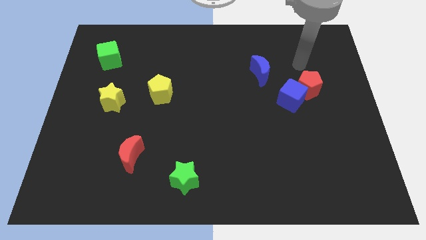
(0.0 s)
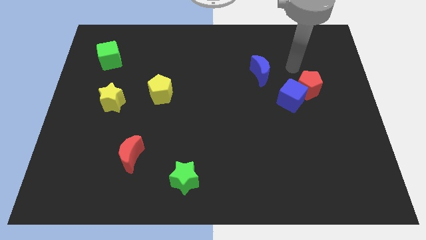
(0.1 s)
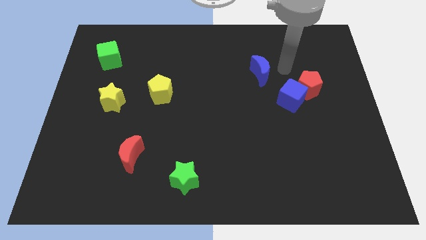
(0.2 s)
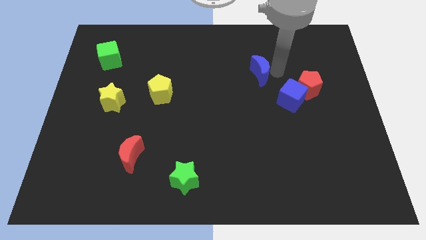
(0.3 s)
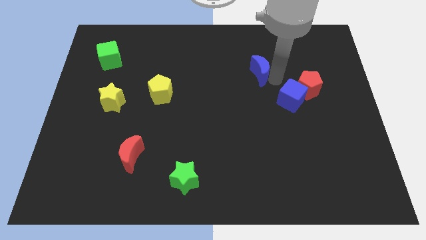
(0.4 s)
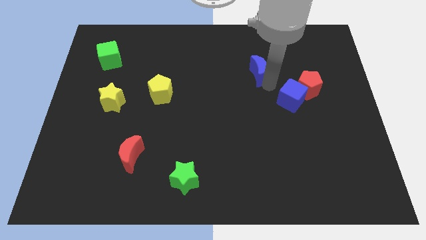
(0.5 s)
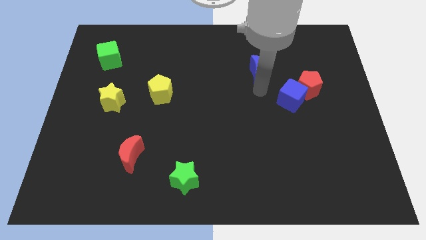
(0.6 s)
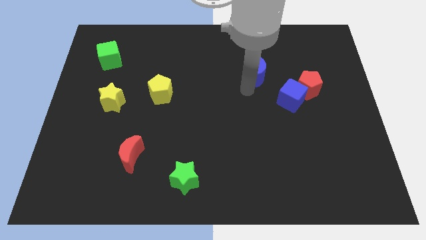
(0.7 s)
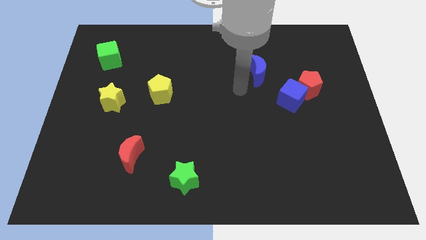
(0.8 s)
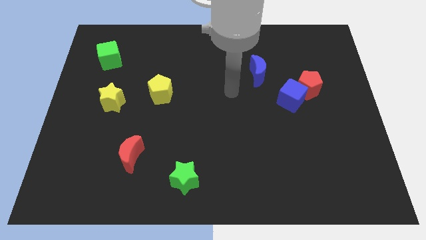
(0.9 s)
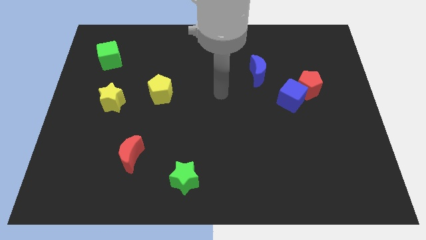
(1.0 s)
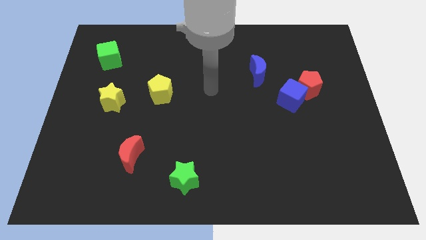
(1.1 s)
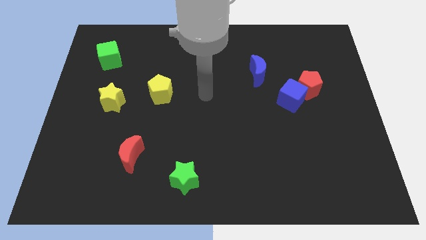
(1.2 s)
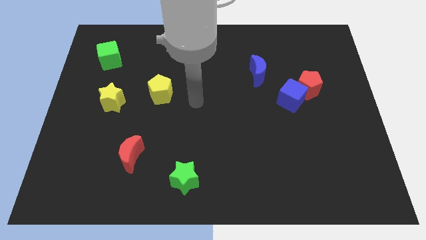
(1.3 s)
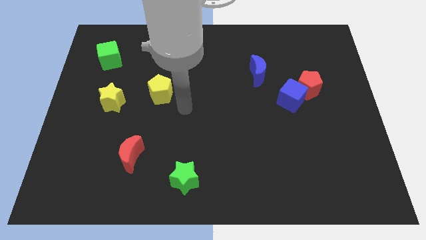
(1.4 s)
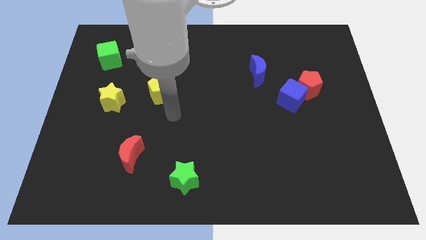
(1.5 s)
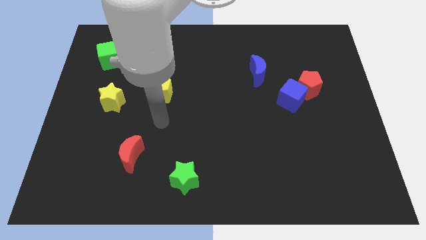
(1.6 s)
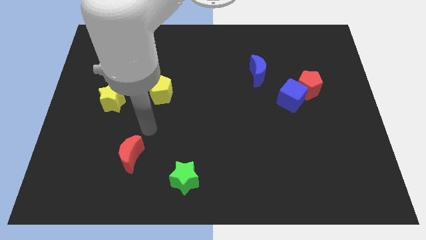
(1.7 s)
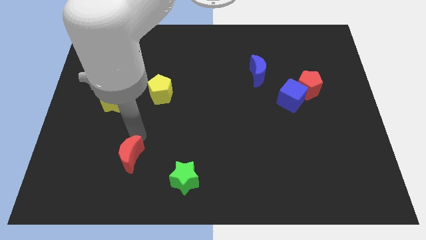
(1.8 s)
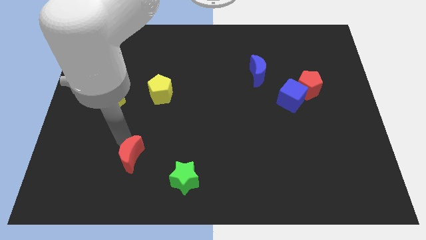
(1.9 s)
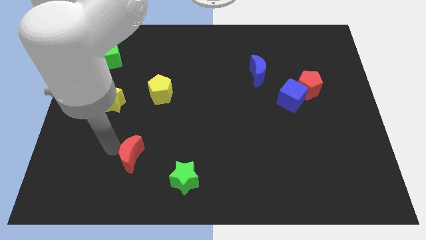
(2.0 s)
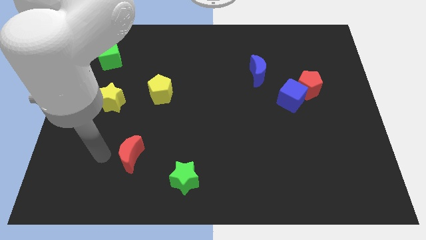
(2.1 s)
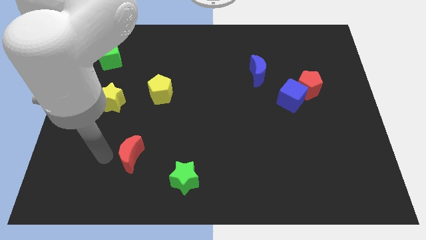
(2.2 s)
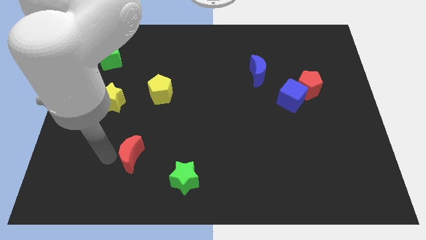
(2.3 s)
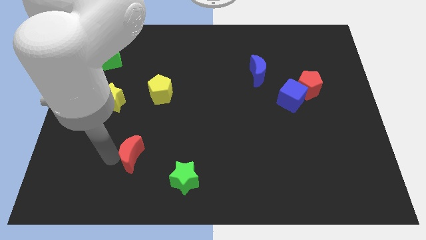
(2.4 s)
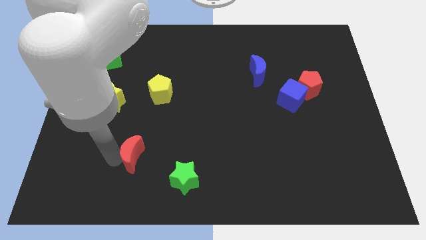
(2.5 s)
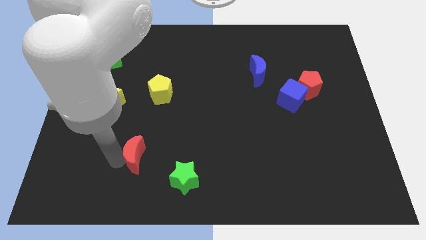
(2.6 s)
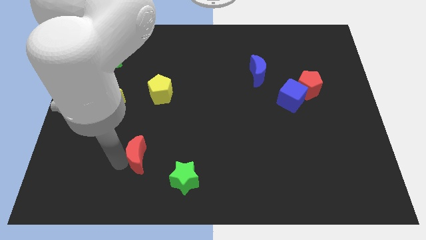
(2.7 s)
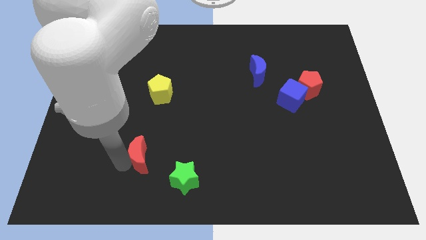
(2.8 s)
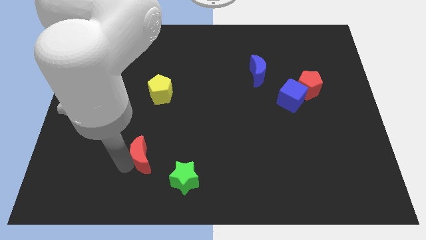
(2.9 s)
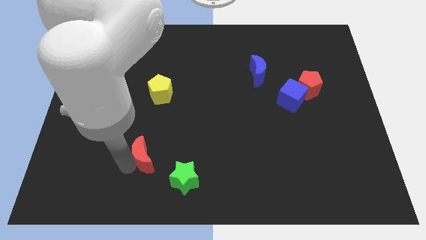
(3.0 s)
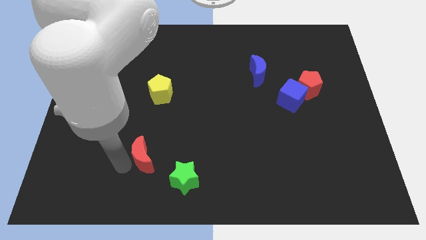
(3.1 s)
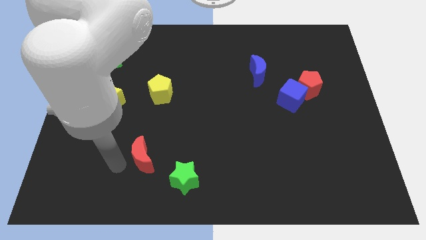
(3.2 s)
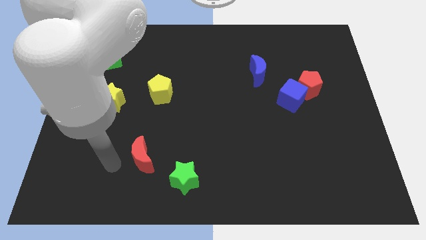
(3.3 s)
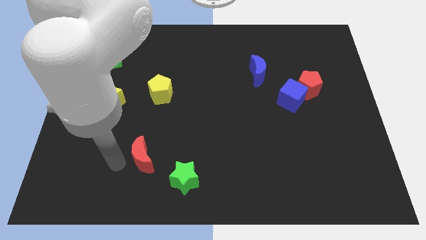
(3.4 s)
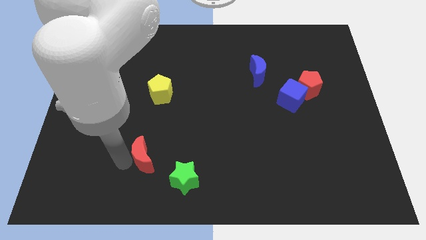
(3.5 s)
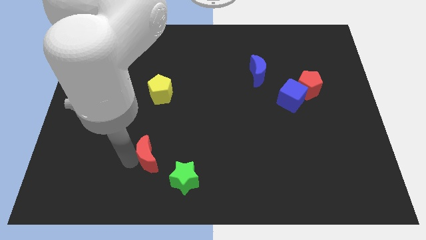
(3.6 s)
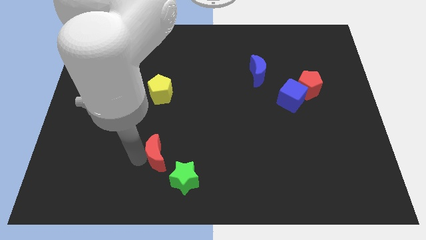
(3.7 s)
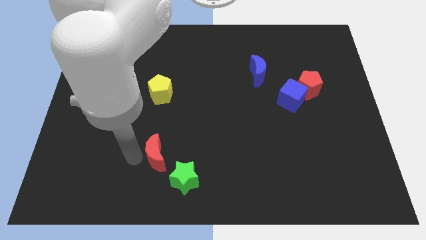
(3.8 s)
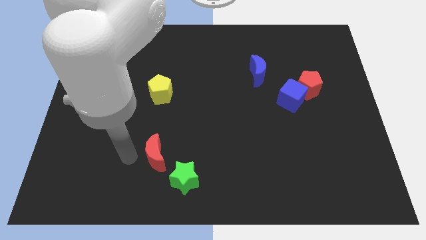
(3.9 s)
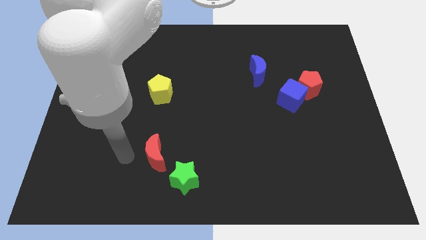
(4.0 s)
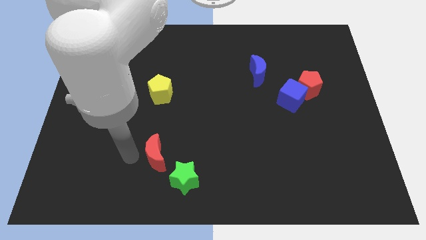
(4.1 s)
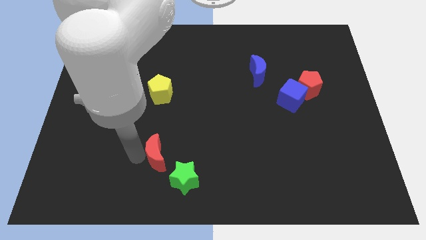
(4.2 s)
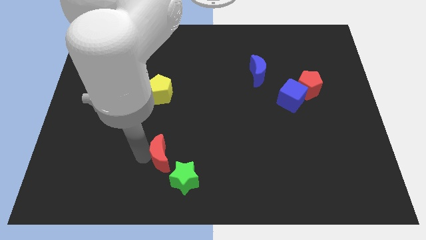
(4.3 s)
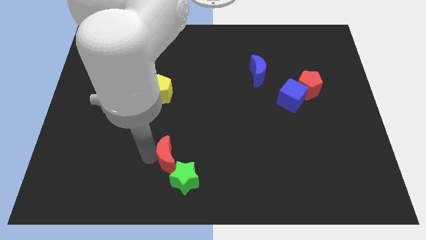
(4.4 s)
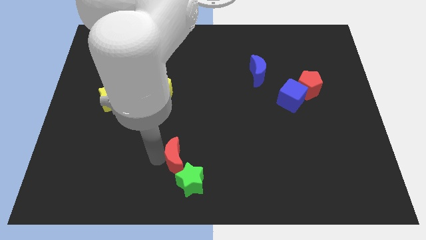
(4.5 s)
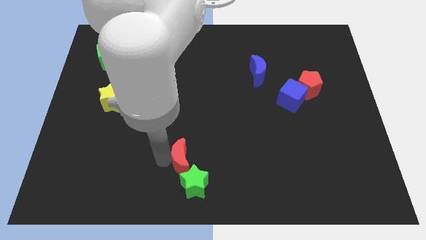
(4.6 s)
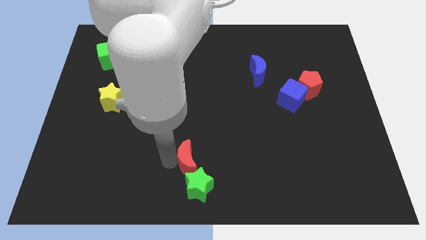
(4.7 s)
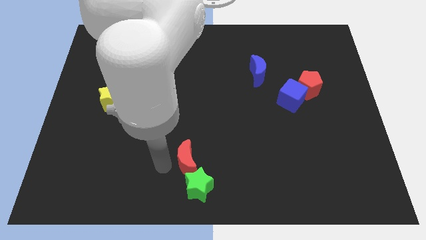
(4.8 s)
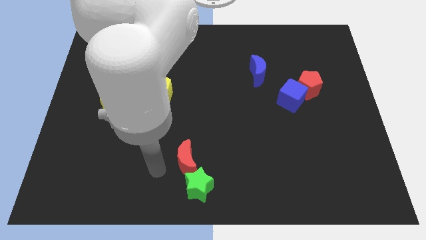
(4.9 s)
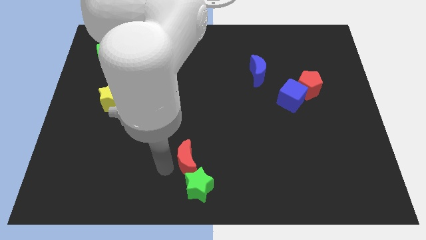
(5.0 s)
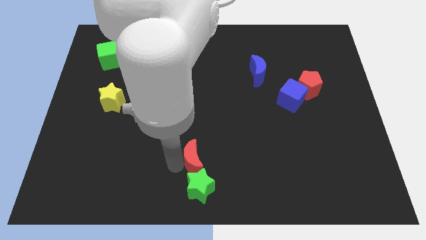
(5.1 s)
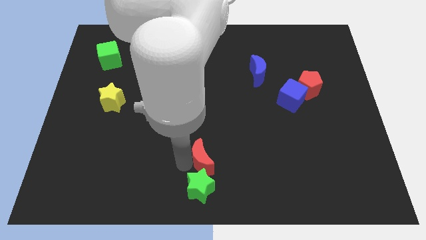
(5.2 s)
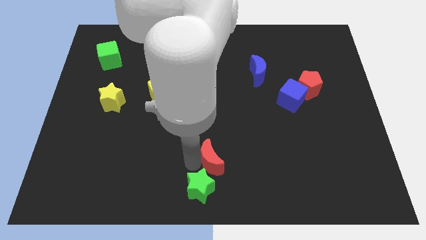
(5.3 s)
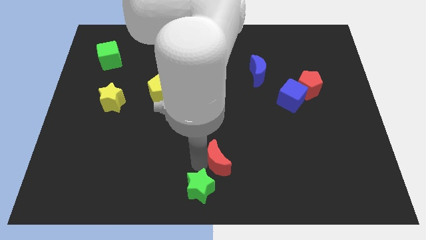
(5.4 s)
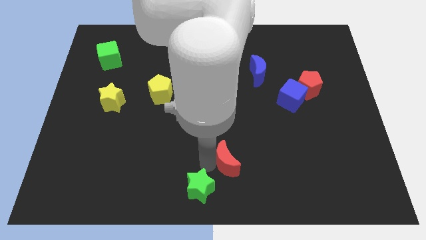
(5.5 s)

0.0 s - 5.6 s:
move the red moon right

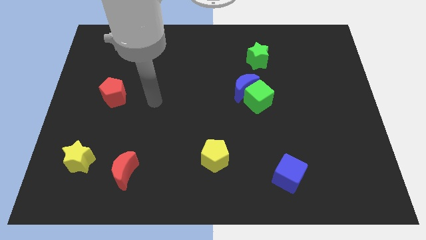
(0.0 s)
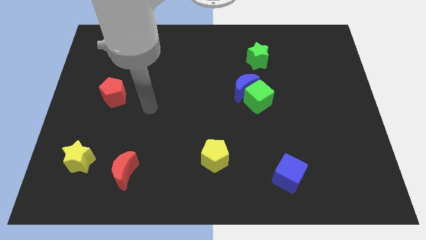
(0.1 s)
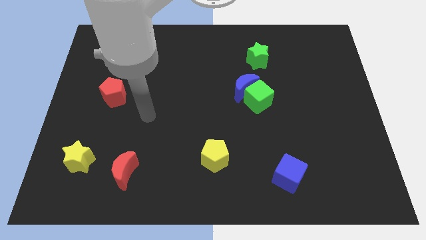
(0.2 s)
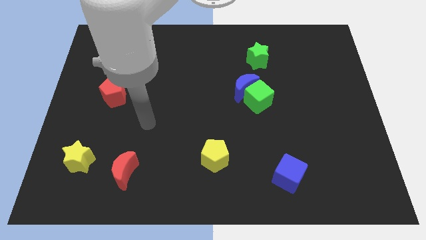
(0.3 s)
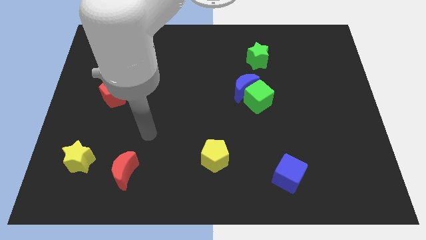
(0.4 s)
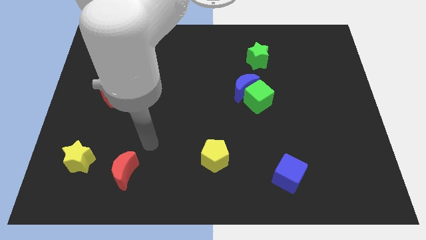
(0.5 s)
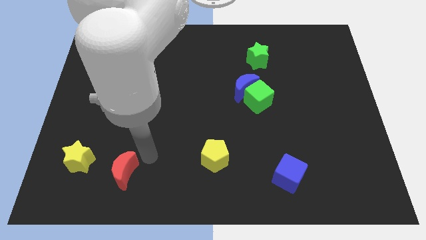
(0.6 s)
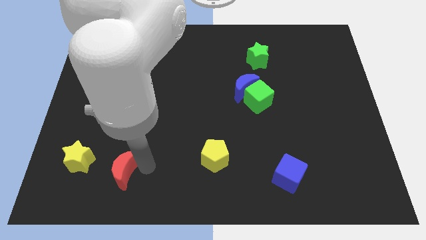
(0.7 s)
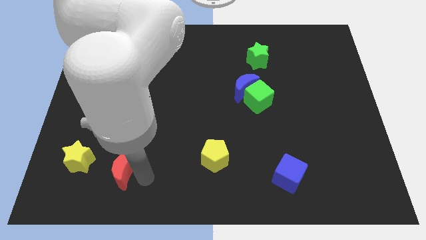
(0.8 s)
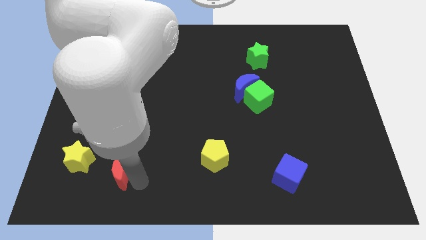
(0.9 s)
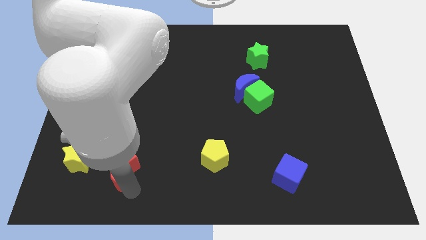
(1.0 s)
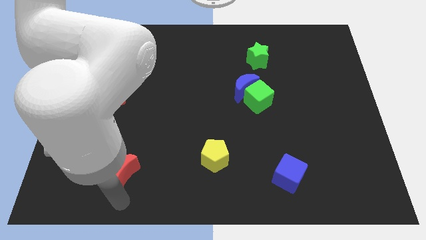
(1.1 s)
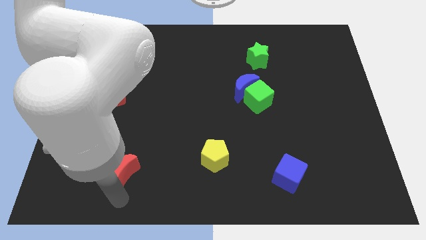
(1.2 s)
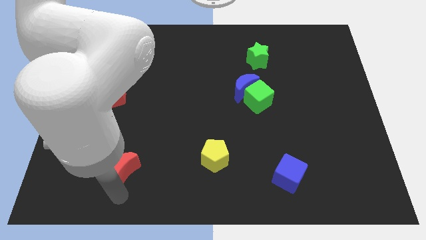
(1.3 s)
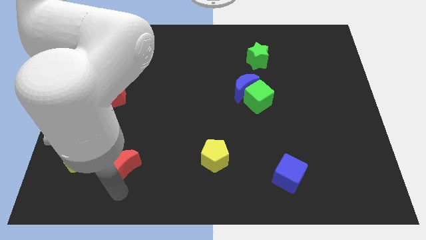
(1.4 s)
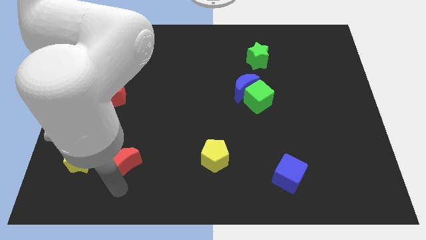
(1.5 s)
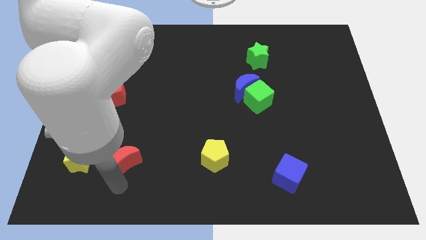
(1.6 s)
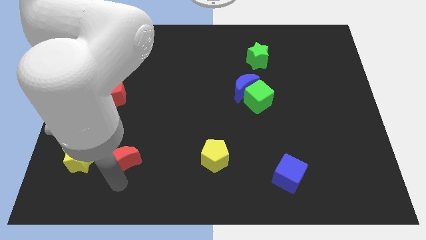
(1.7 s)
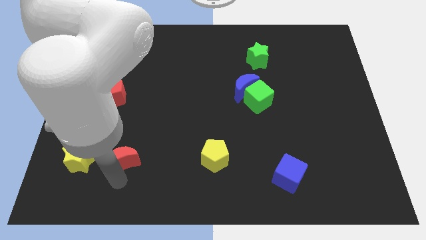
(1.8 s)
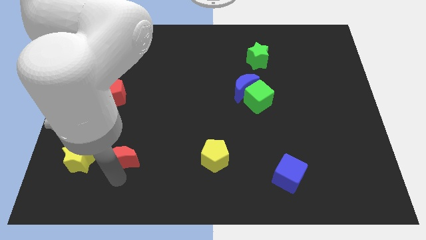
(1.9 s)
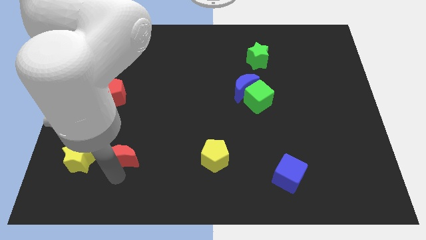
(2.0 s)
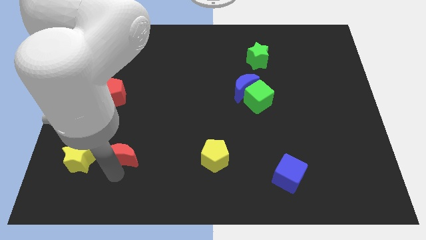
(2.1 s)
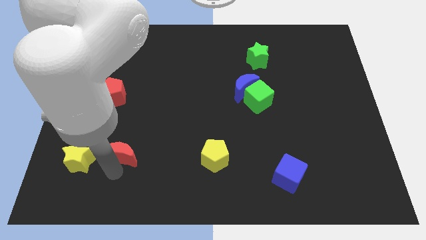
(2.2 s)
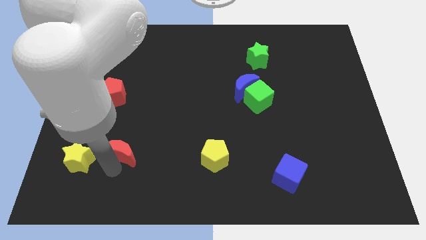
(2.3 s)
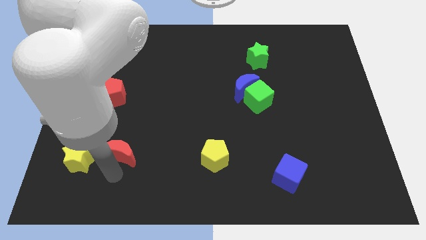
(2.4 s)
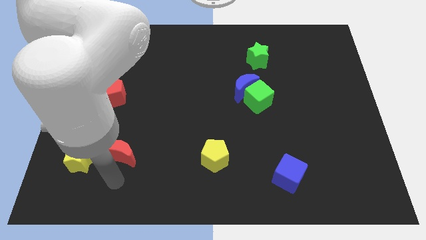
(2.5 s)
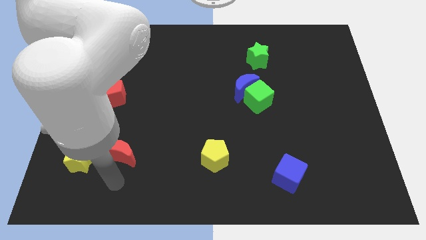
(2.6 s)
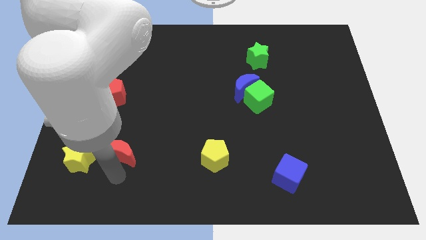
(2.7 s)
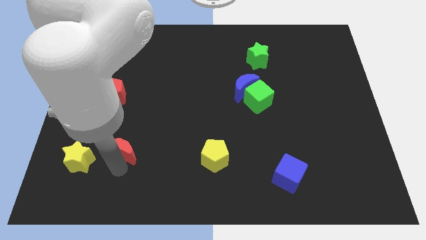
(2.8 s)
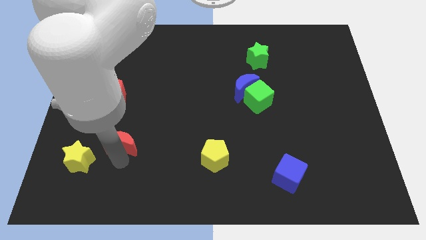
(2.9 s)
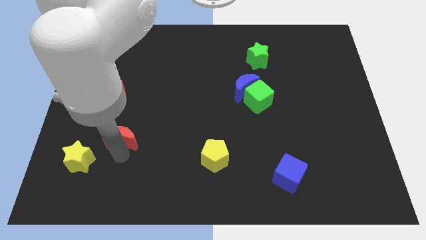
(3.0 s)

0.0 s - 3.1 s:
slide the red moon upwards a bit
